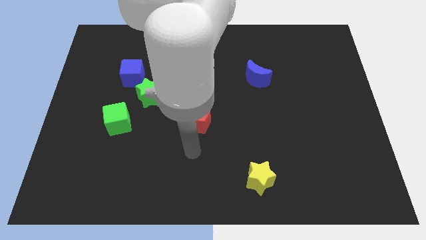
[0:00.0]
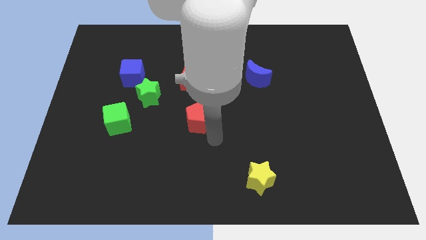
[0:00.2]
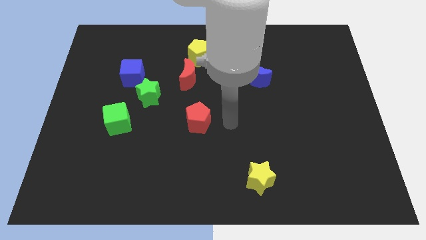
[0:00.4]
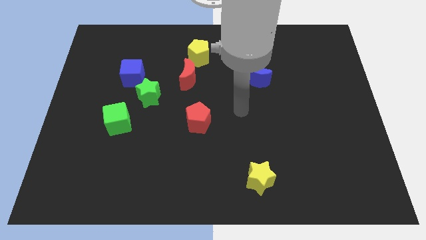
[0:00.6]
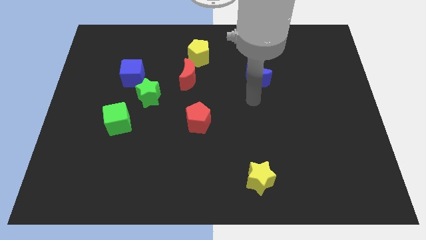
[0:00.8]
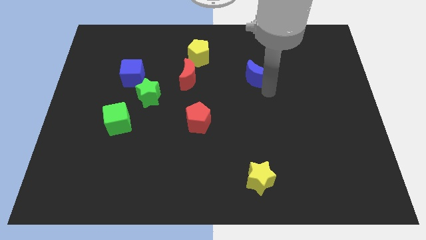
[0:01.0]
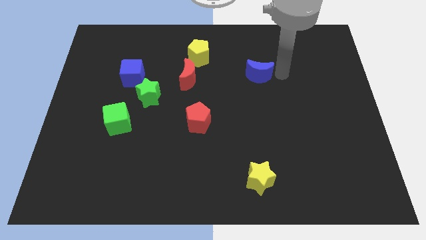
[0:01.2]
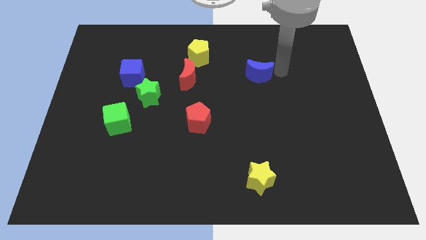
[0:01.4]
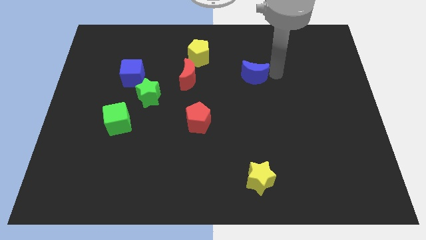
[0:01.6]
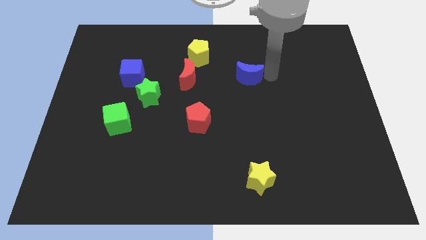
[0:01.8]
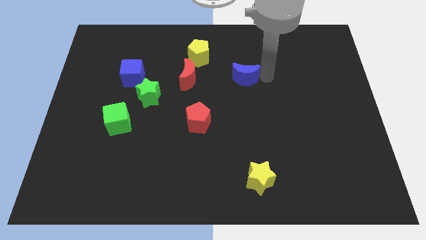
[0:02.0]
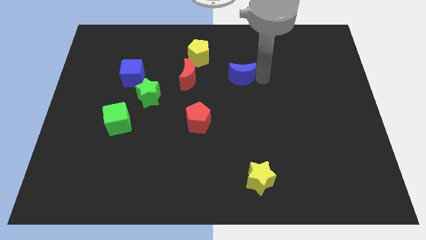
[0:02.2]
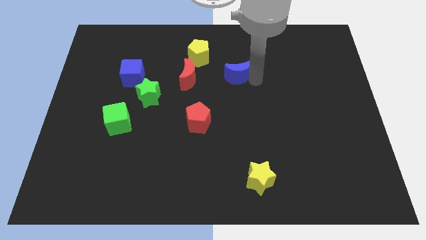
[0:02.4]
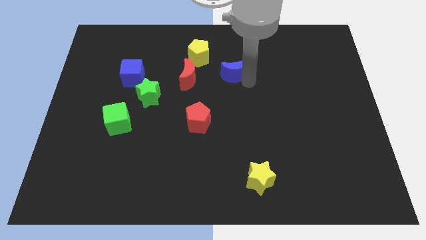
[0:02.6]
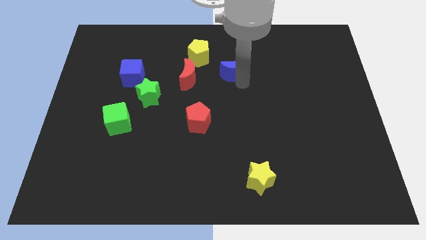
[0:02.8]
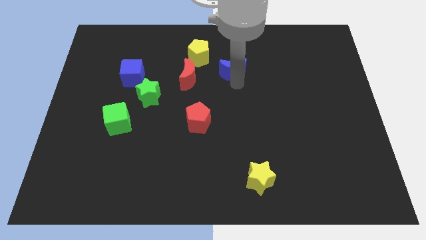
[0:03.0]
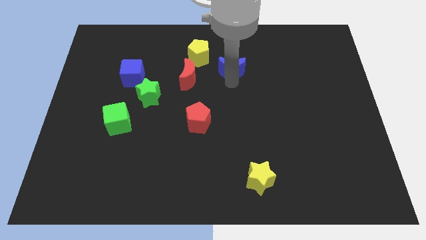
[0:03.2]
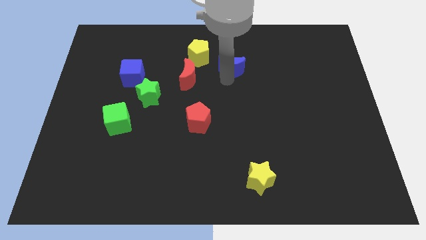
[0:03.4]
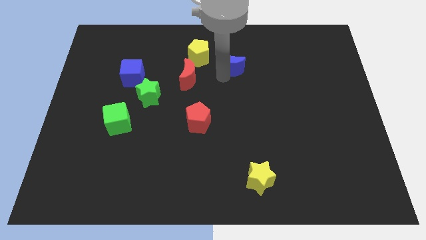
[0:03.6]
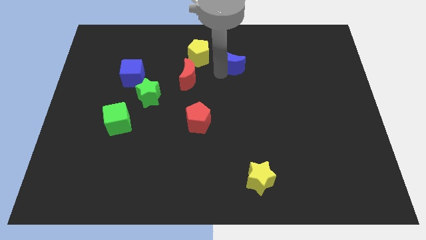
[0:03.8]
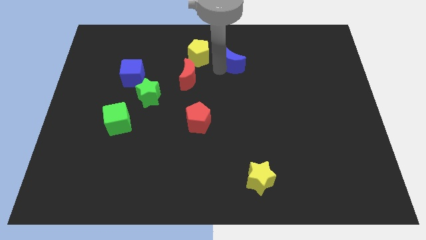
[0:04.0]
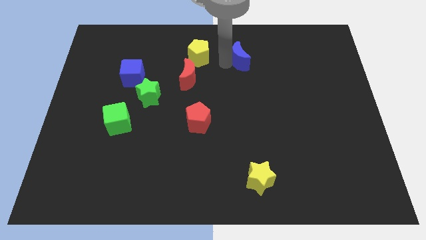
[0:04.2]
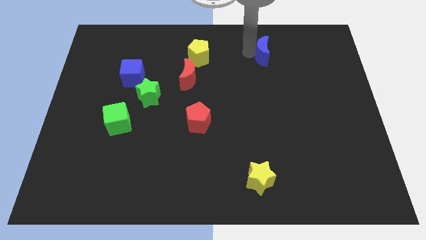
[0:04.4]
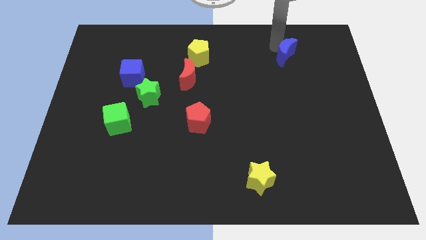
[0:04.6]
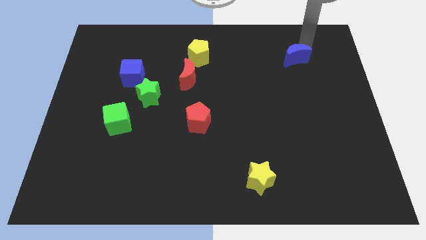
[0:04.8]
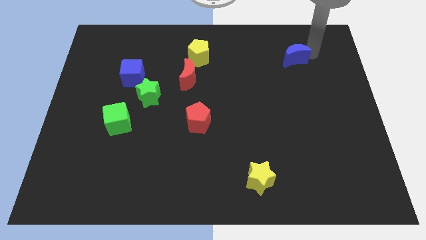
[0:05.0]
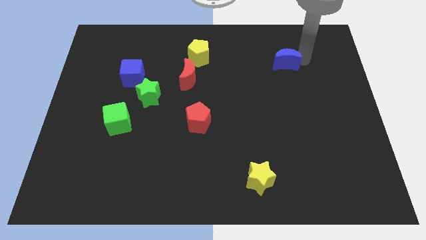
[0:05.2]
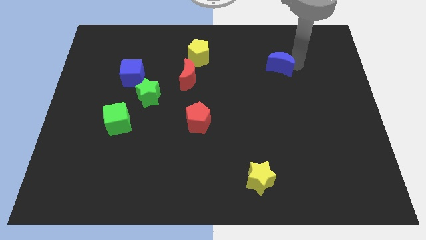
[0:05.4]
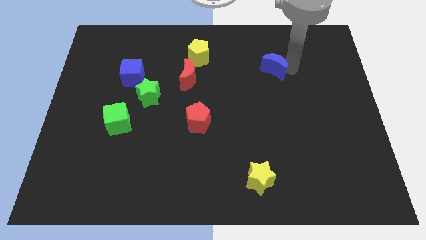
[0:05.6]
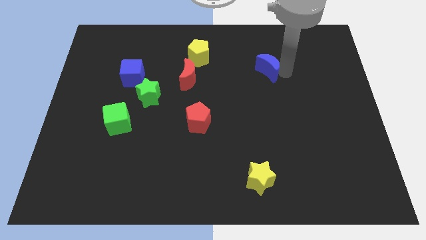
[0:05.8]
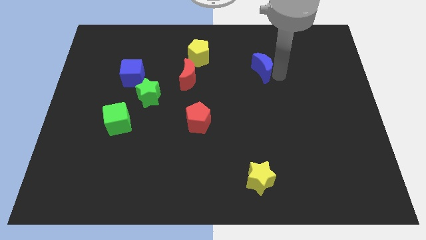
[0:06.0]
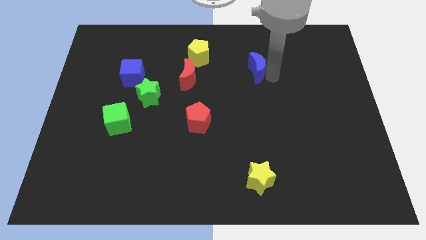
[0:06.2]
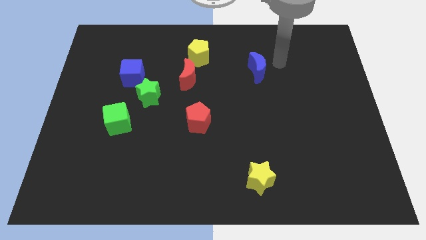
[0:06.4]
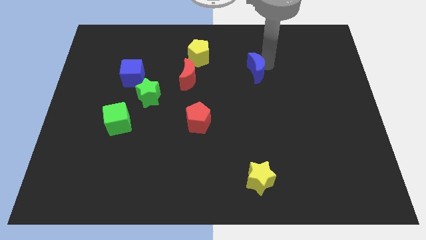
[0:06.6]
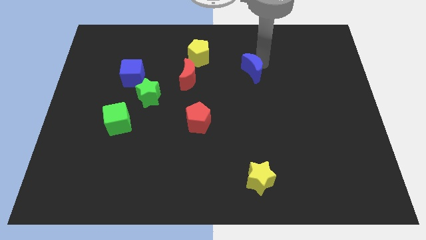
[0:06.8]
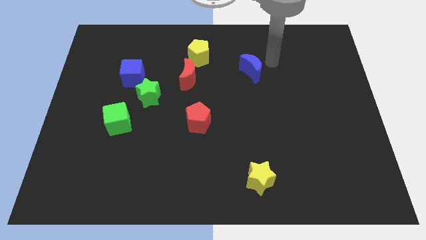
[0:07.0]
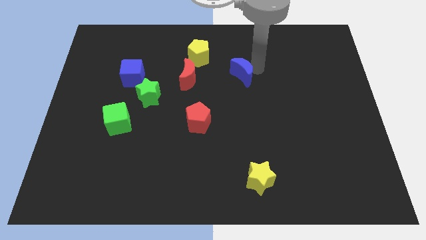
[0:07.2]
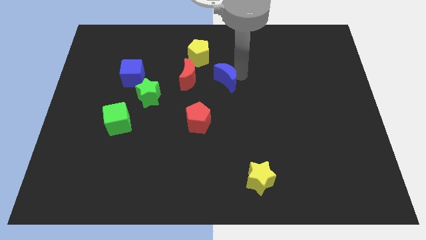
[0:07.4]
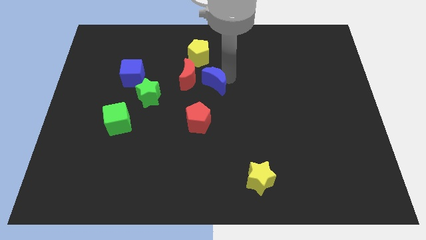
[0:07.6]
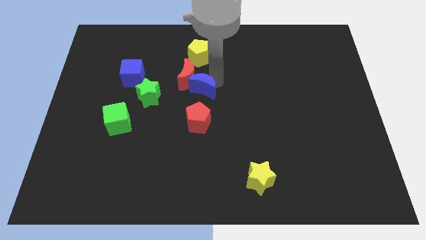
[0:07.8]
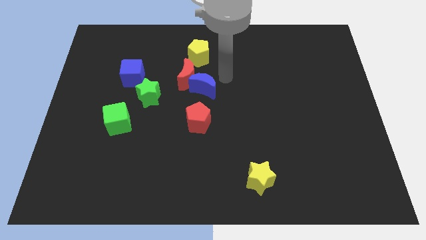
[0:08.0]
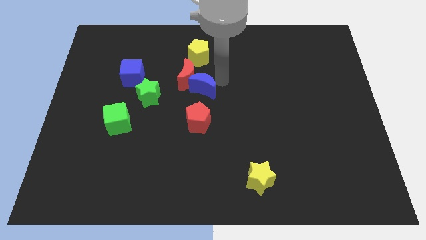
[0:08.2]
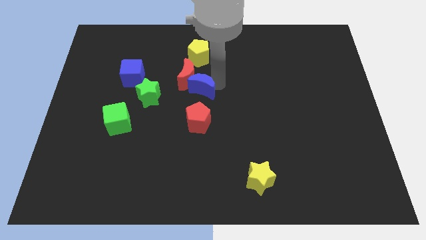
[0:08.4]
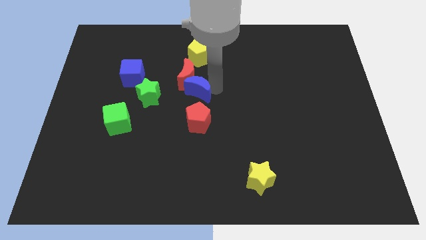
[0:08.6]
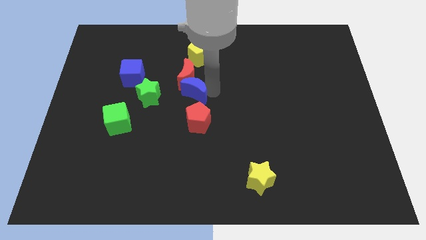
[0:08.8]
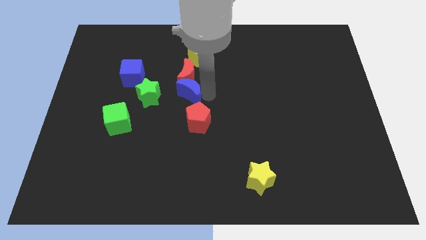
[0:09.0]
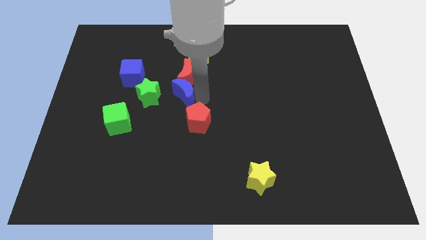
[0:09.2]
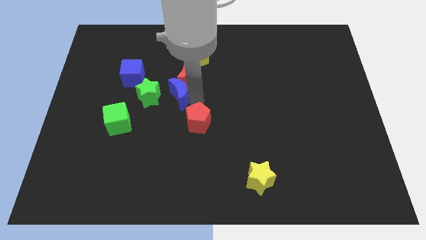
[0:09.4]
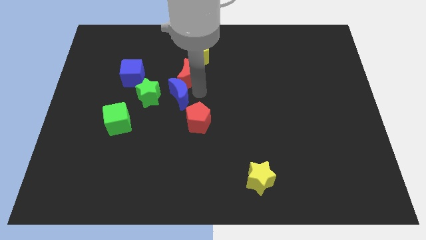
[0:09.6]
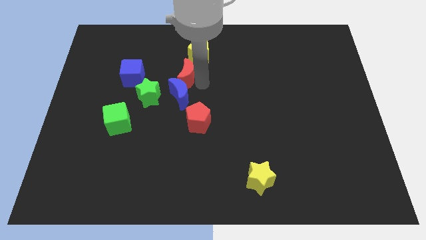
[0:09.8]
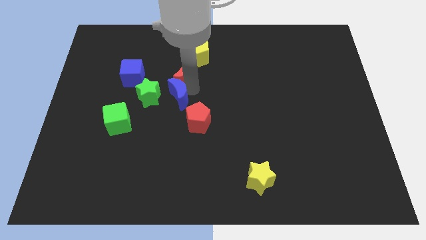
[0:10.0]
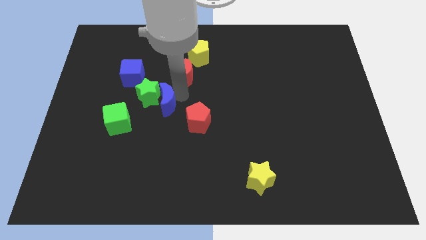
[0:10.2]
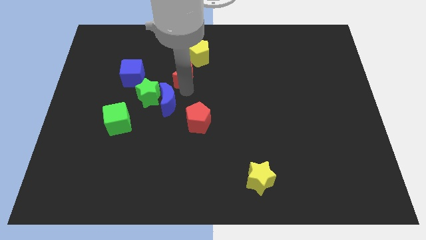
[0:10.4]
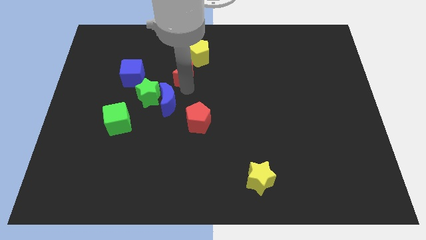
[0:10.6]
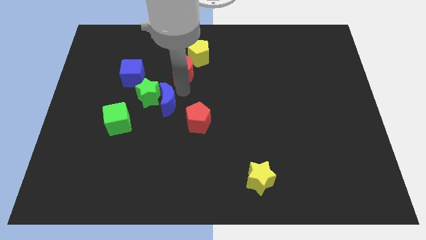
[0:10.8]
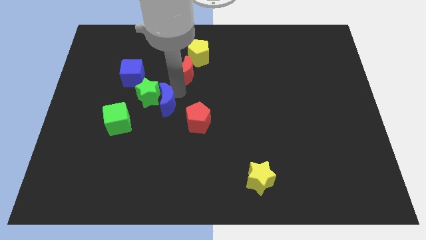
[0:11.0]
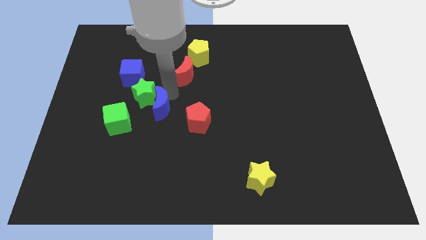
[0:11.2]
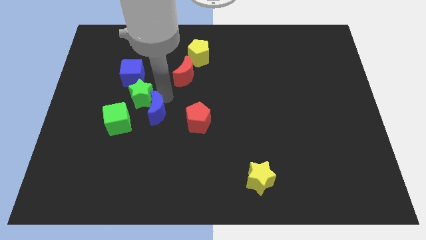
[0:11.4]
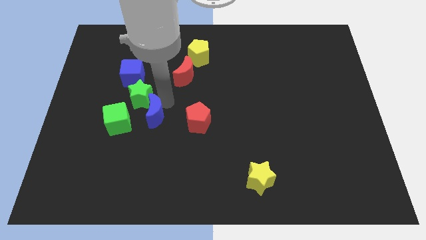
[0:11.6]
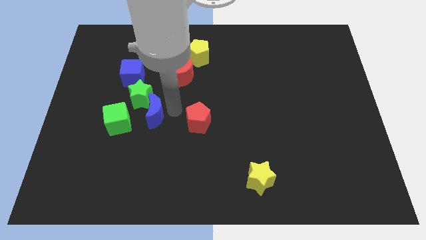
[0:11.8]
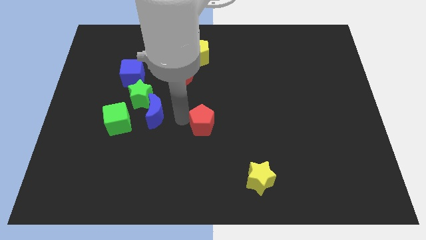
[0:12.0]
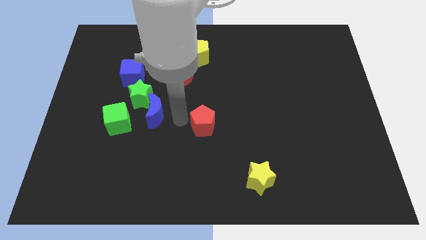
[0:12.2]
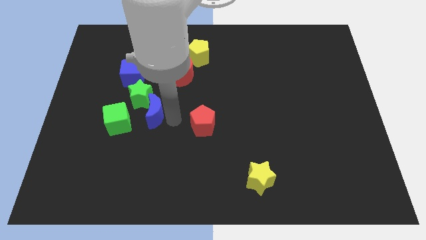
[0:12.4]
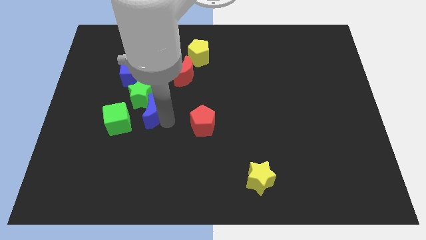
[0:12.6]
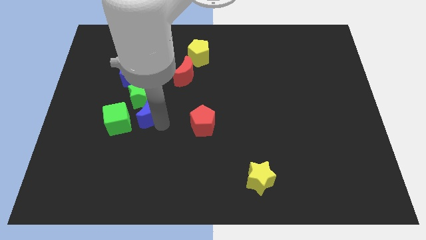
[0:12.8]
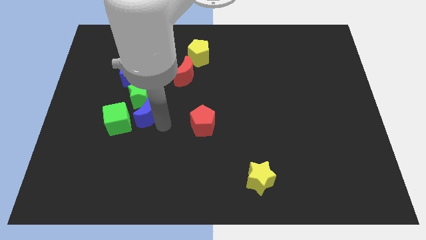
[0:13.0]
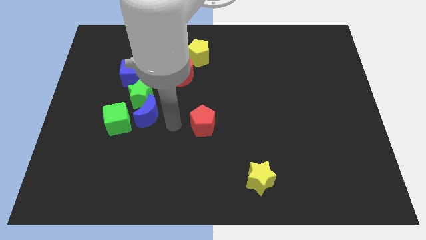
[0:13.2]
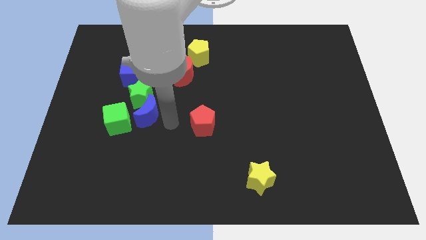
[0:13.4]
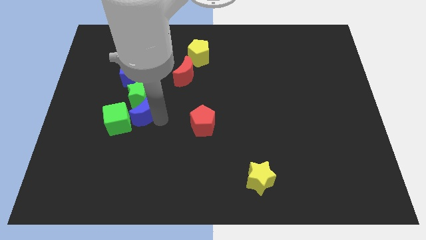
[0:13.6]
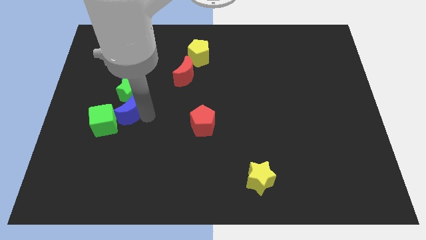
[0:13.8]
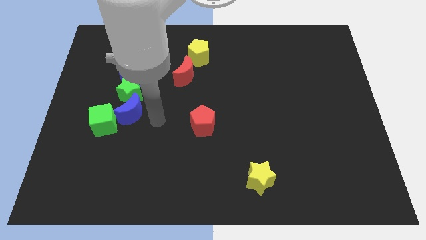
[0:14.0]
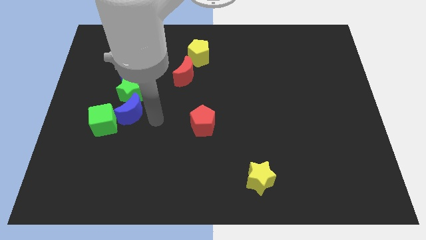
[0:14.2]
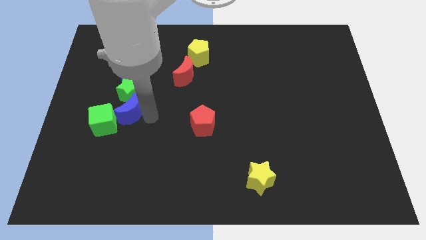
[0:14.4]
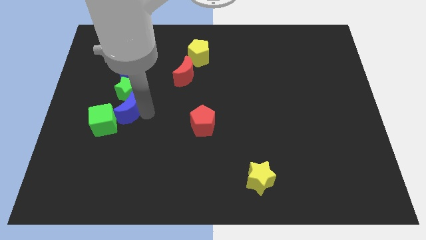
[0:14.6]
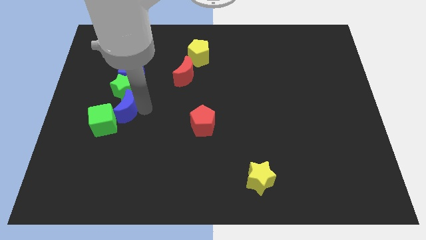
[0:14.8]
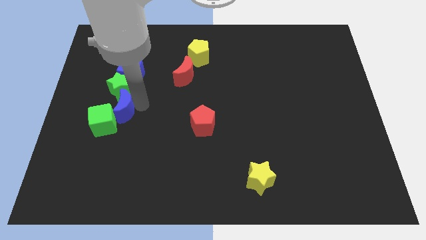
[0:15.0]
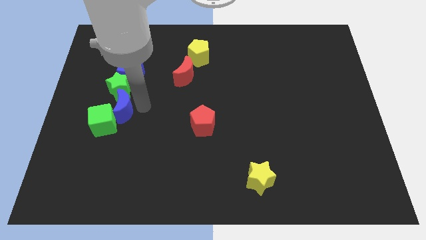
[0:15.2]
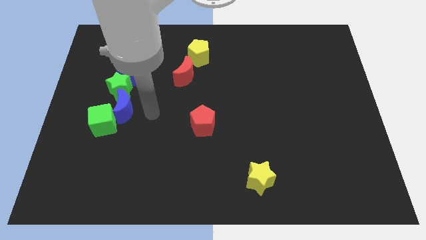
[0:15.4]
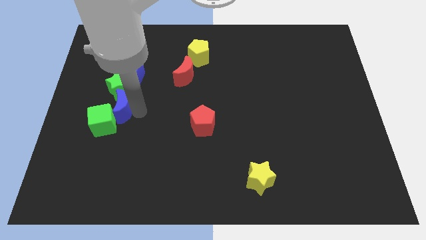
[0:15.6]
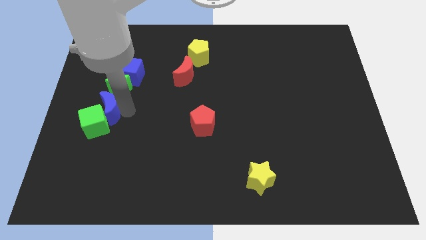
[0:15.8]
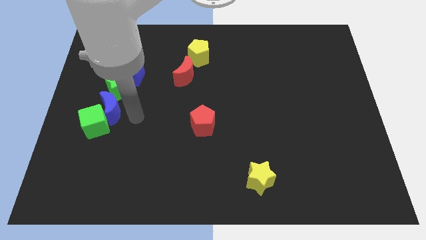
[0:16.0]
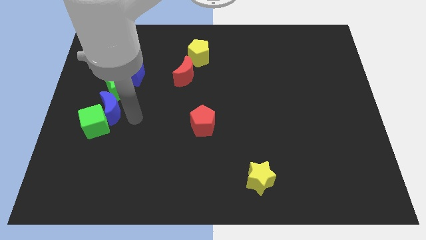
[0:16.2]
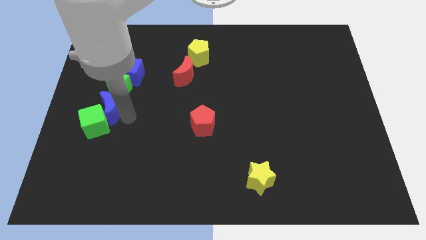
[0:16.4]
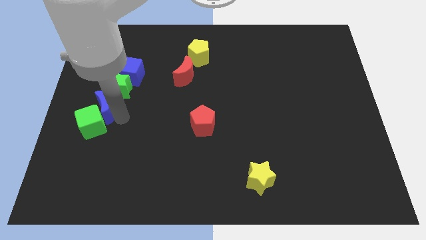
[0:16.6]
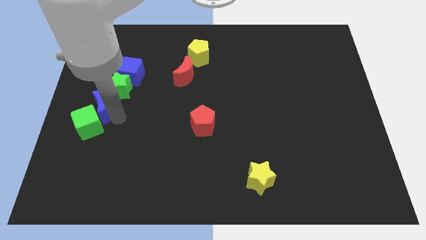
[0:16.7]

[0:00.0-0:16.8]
push the blue moon to the left side
